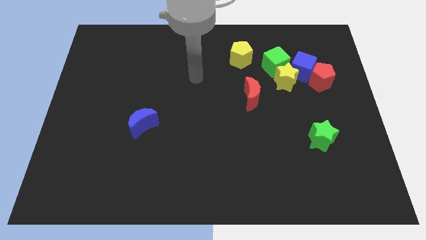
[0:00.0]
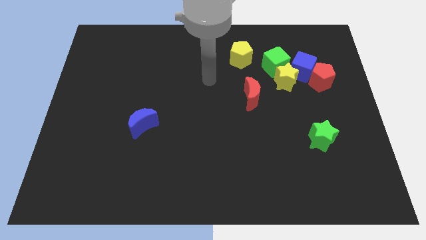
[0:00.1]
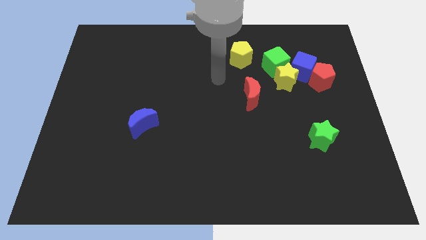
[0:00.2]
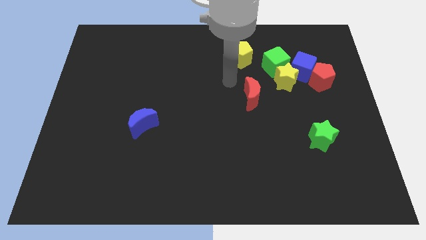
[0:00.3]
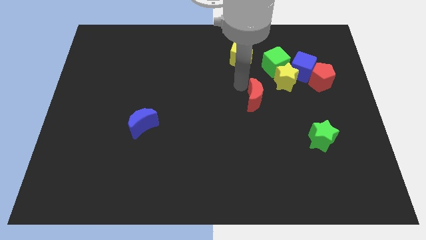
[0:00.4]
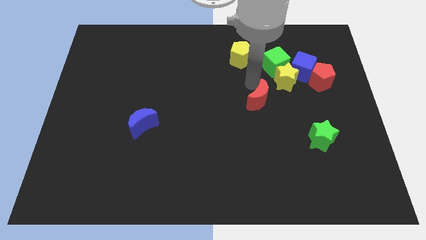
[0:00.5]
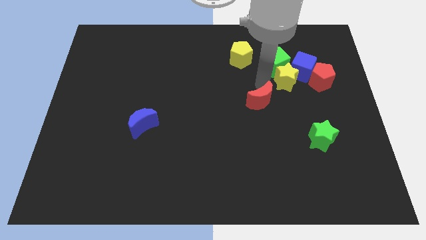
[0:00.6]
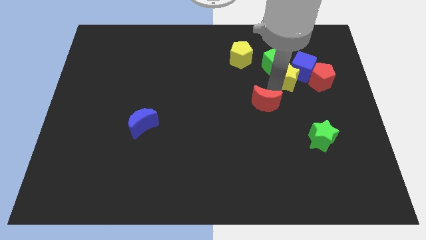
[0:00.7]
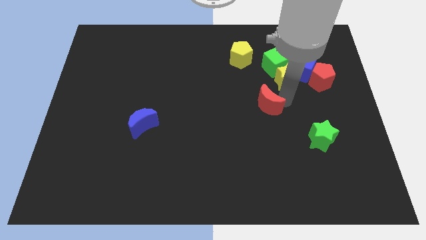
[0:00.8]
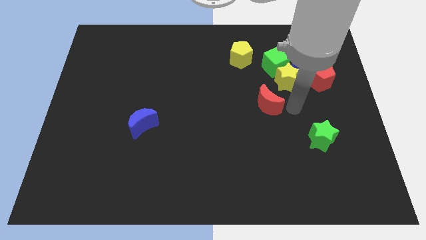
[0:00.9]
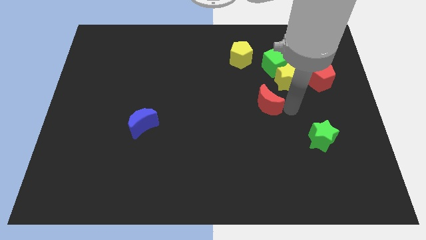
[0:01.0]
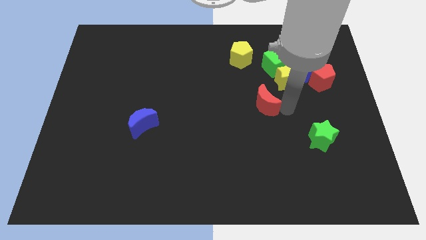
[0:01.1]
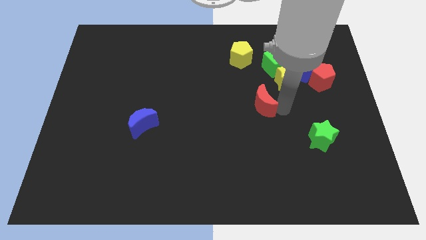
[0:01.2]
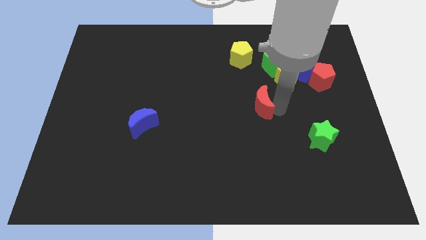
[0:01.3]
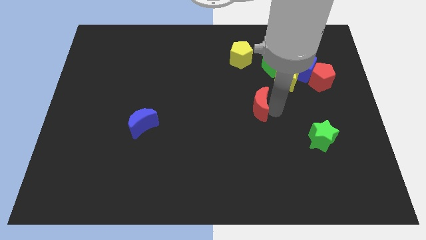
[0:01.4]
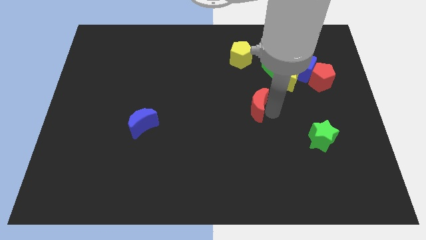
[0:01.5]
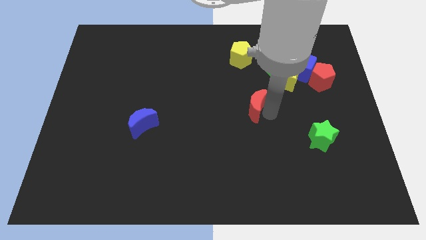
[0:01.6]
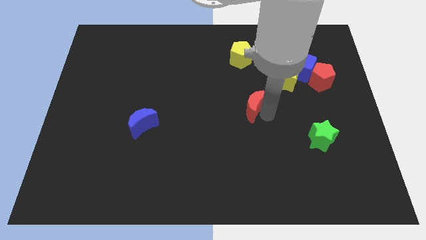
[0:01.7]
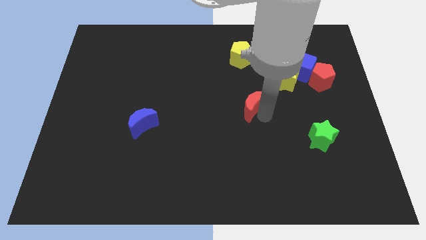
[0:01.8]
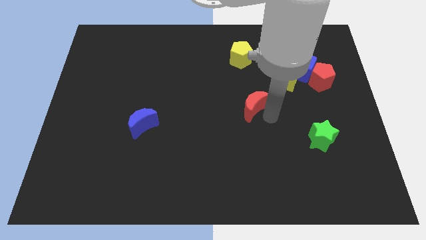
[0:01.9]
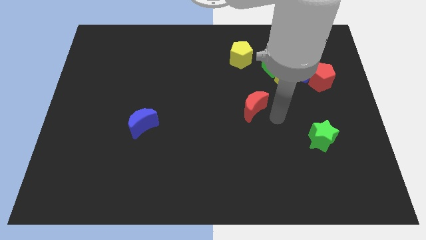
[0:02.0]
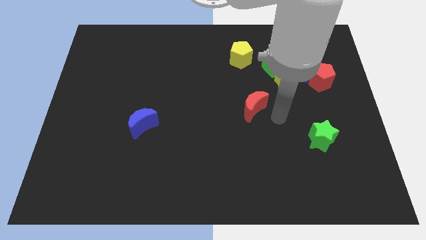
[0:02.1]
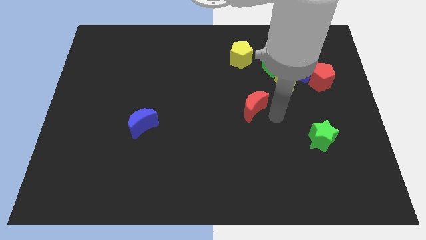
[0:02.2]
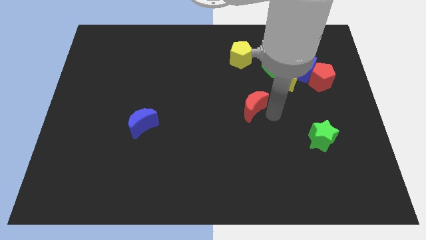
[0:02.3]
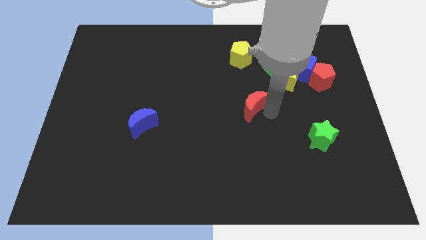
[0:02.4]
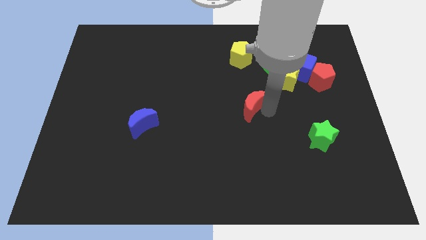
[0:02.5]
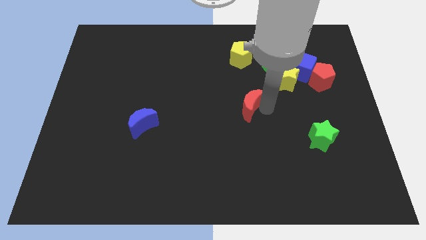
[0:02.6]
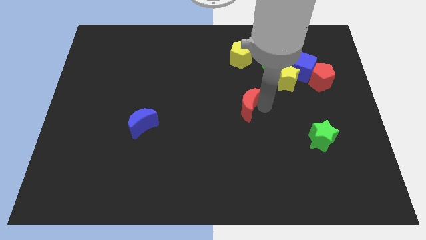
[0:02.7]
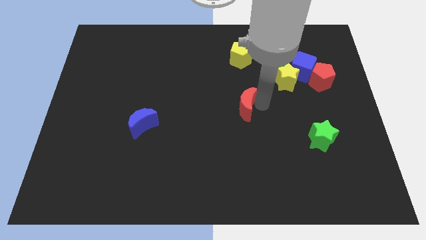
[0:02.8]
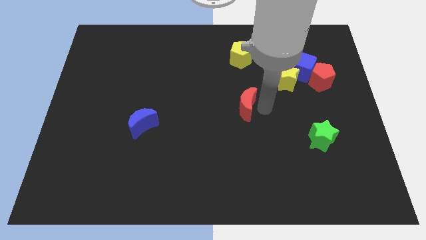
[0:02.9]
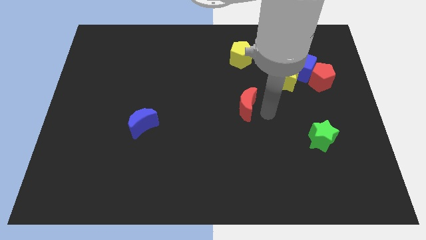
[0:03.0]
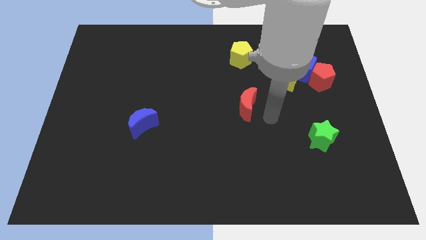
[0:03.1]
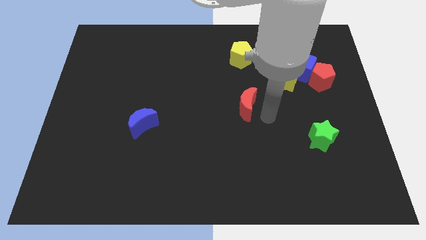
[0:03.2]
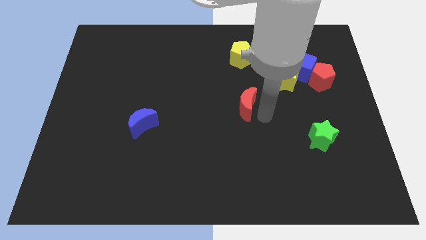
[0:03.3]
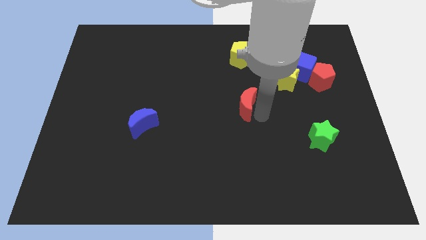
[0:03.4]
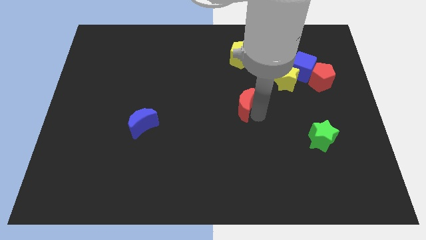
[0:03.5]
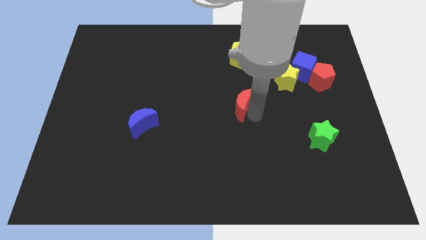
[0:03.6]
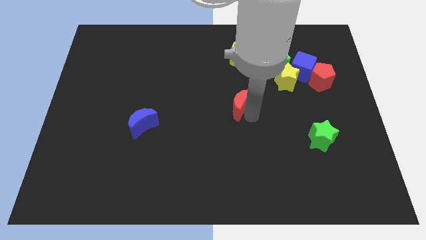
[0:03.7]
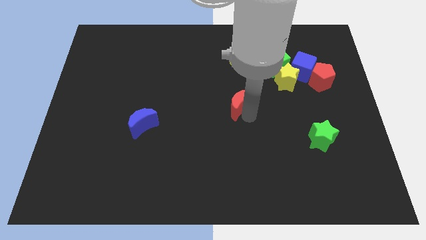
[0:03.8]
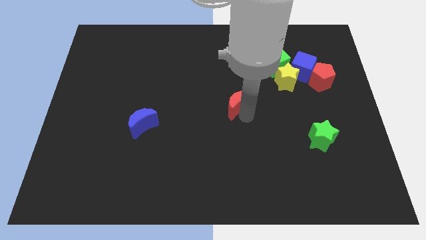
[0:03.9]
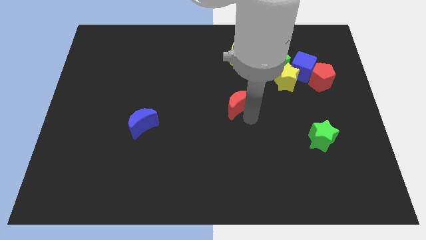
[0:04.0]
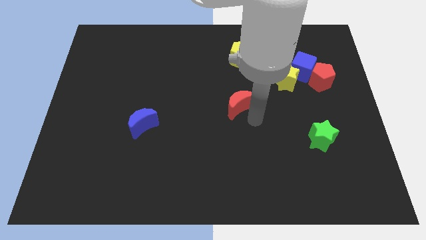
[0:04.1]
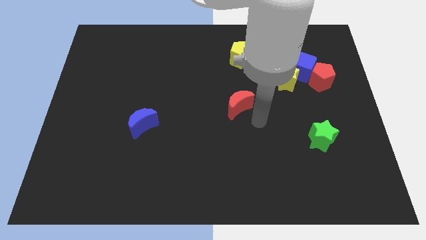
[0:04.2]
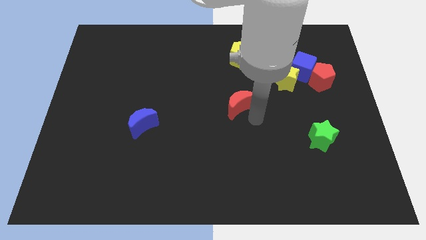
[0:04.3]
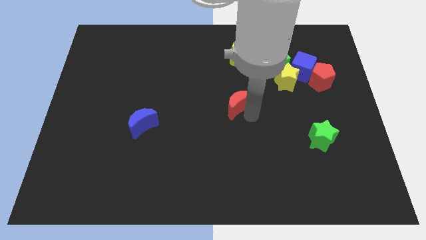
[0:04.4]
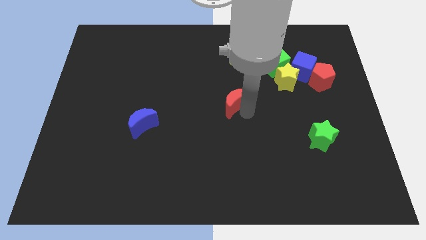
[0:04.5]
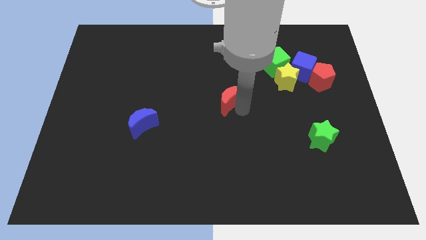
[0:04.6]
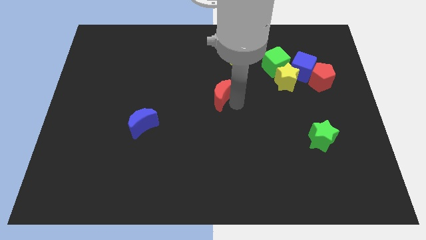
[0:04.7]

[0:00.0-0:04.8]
push the red moon to the left a little bit

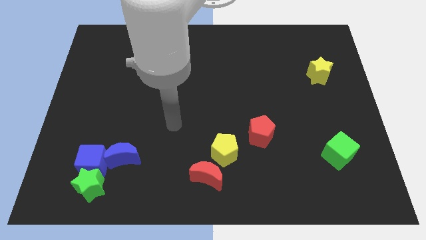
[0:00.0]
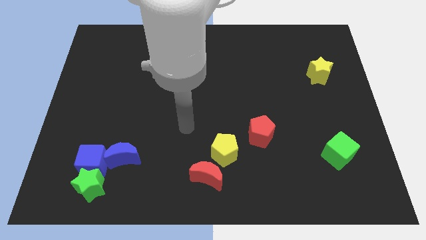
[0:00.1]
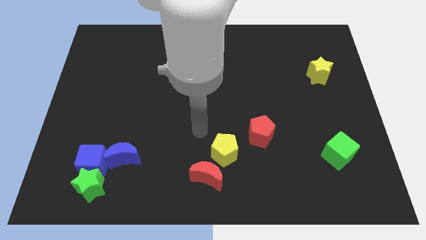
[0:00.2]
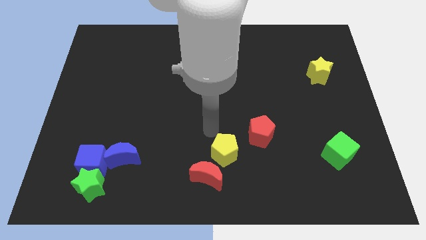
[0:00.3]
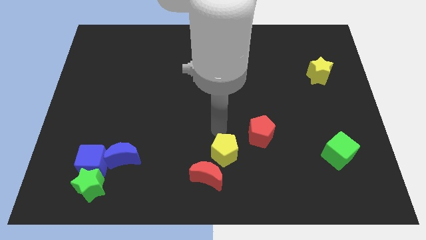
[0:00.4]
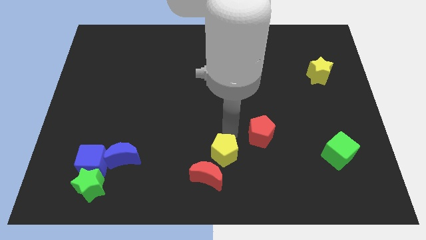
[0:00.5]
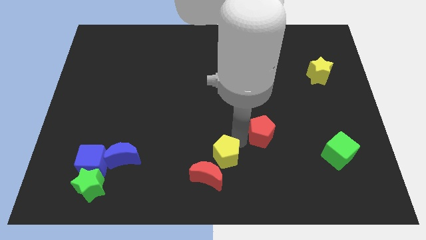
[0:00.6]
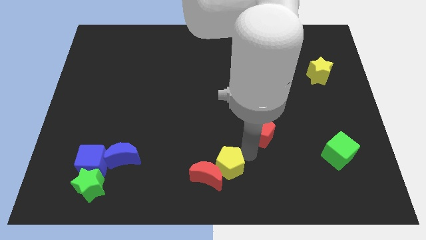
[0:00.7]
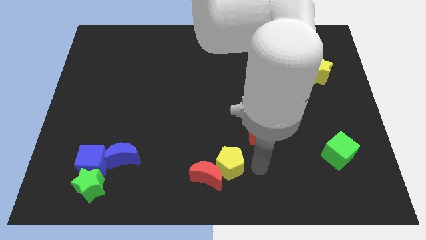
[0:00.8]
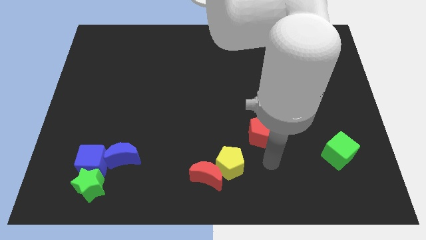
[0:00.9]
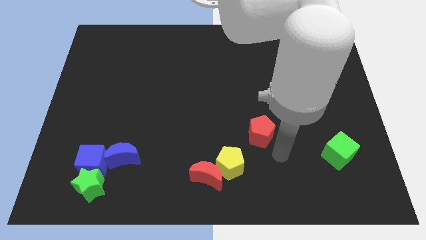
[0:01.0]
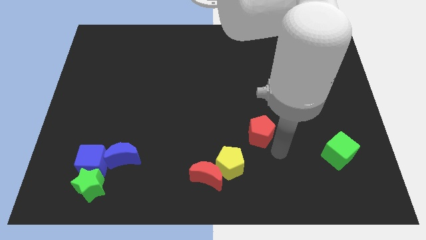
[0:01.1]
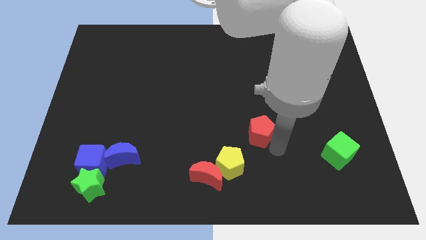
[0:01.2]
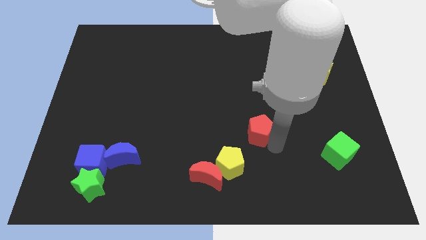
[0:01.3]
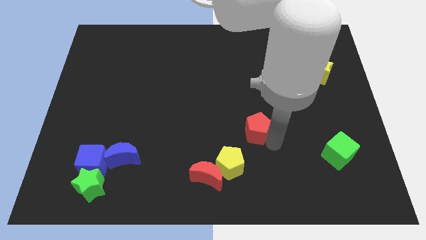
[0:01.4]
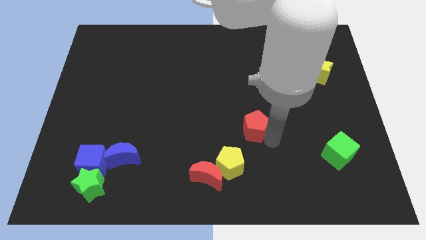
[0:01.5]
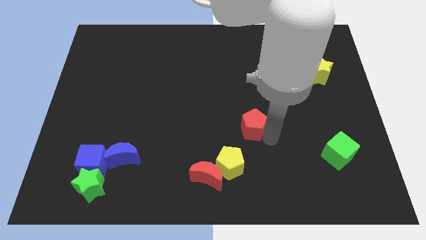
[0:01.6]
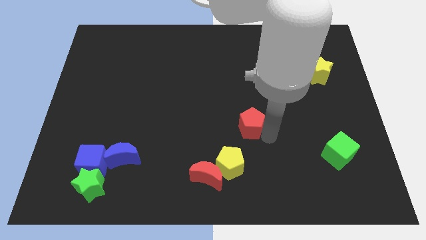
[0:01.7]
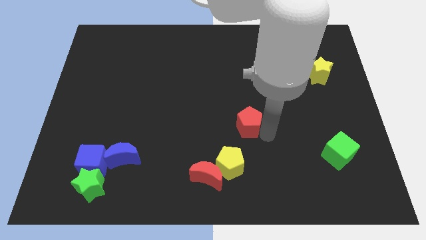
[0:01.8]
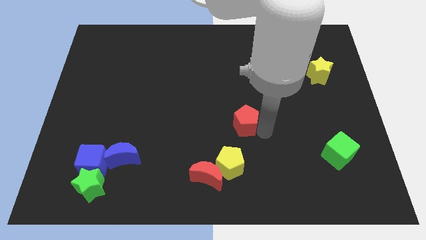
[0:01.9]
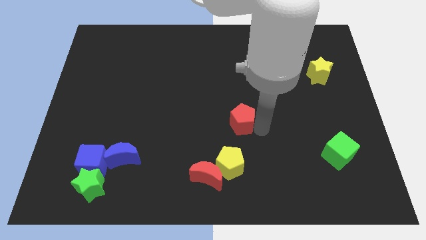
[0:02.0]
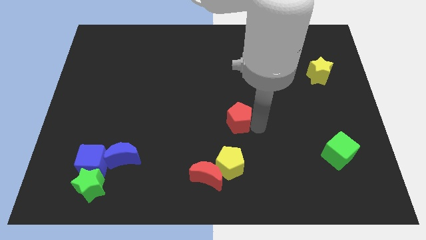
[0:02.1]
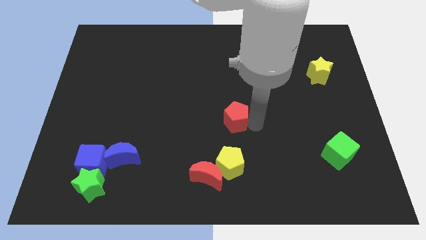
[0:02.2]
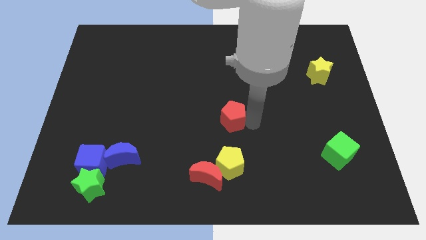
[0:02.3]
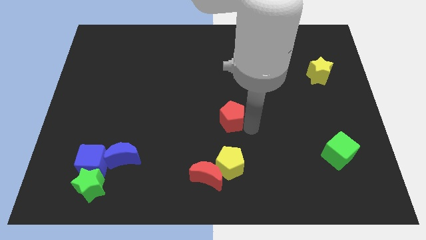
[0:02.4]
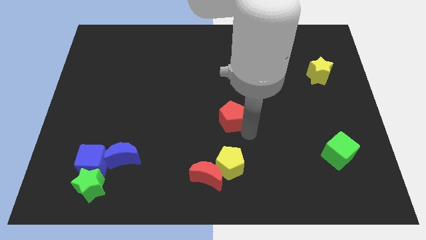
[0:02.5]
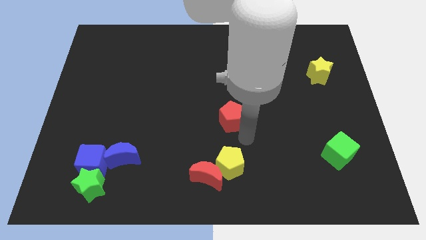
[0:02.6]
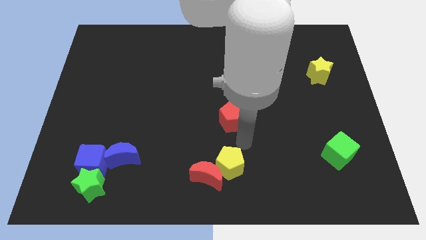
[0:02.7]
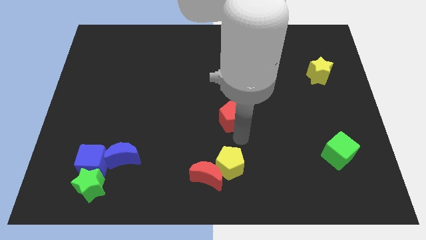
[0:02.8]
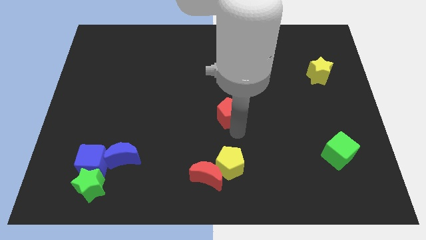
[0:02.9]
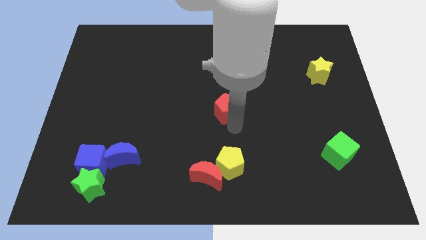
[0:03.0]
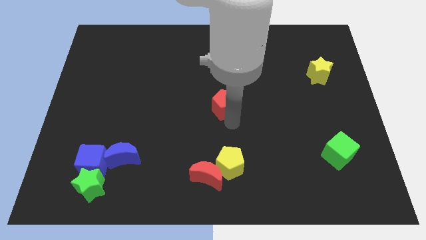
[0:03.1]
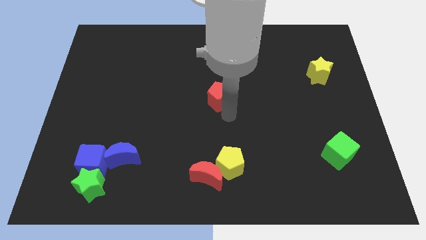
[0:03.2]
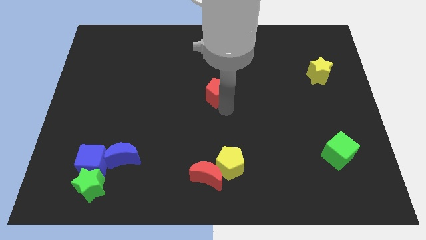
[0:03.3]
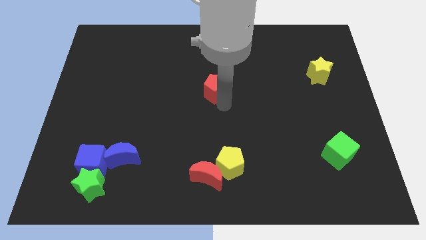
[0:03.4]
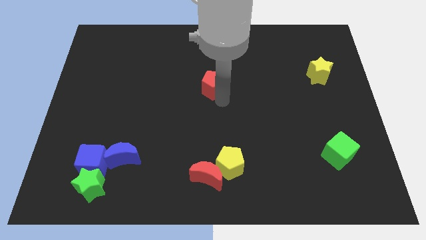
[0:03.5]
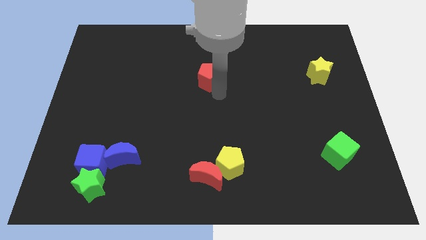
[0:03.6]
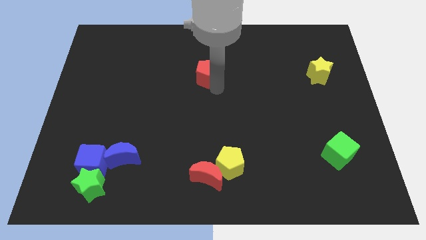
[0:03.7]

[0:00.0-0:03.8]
slide the red pentagon upwards and to the left
